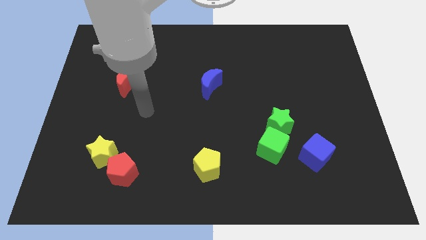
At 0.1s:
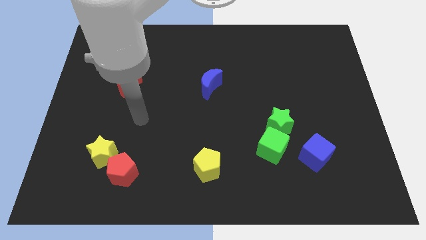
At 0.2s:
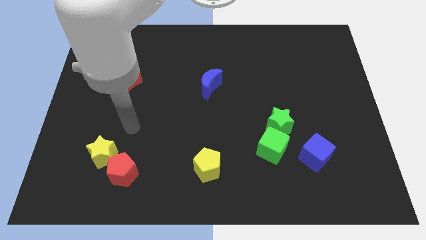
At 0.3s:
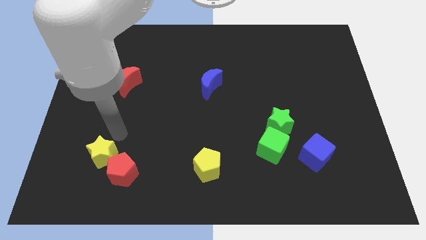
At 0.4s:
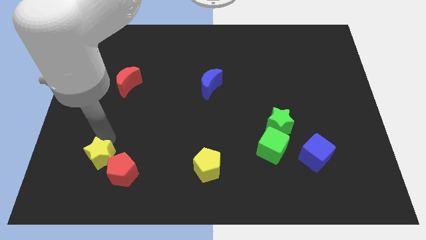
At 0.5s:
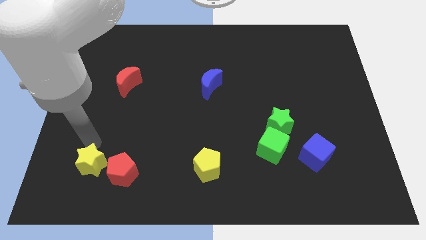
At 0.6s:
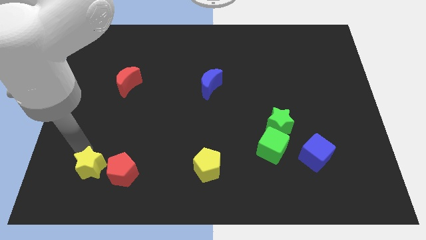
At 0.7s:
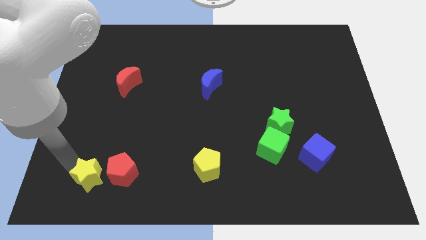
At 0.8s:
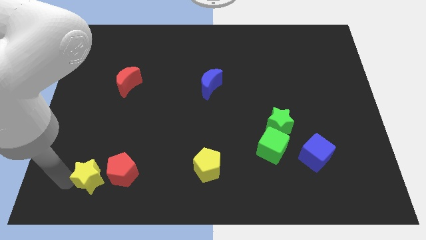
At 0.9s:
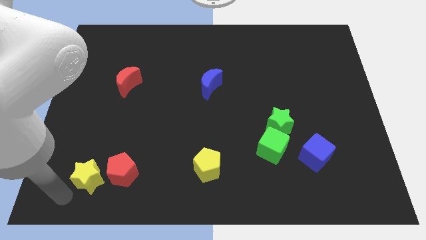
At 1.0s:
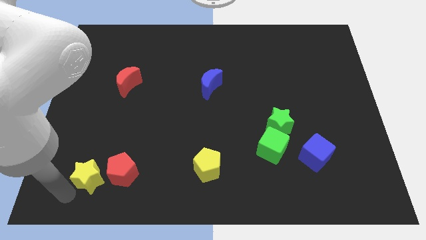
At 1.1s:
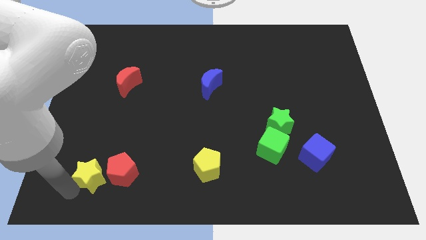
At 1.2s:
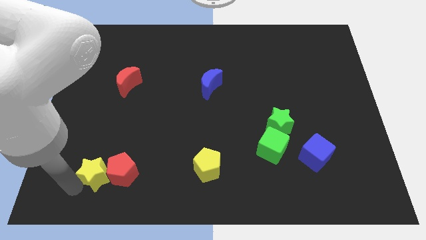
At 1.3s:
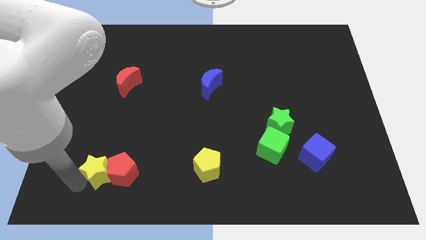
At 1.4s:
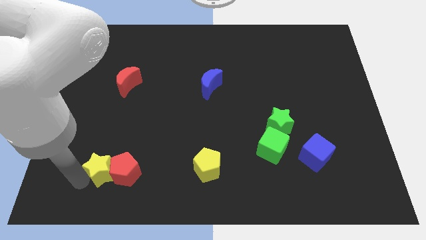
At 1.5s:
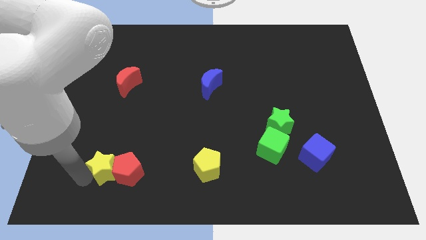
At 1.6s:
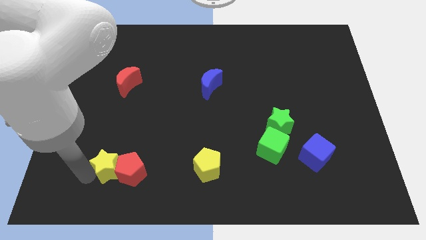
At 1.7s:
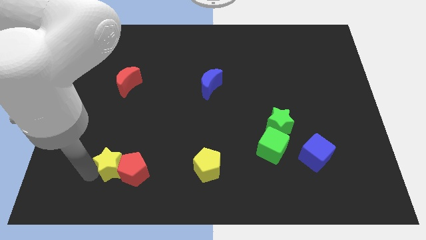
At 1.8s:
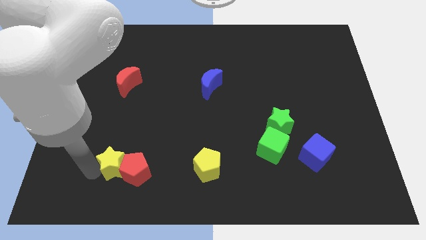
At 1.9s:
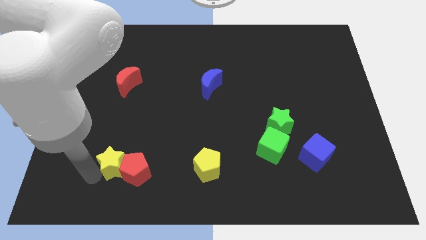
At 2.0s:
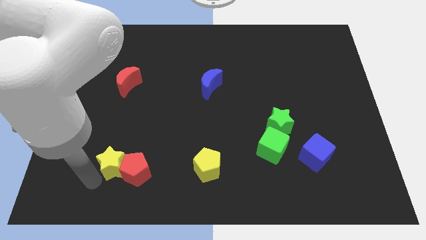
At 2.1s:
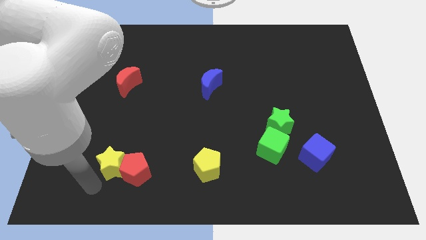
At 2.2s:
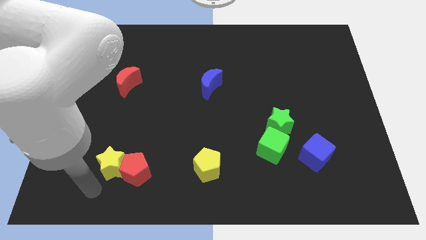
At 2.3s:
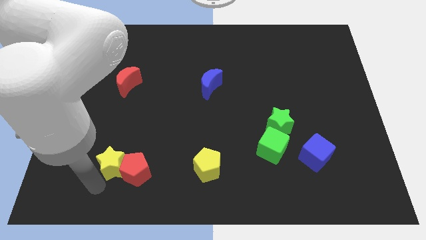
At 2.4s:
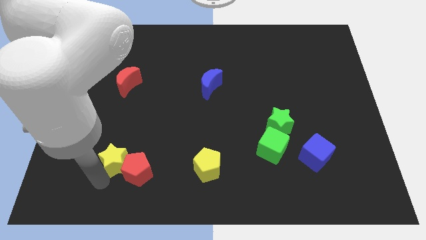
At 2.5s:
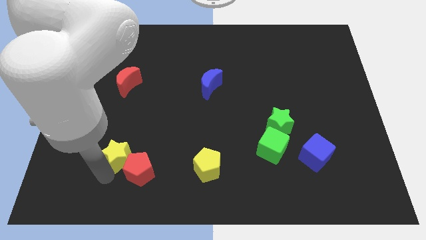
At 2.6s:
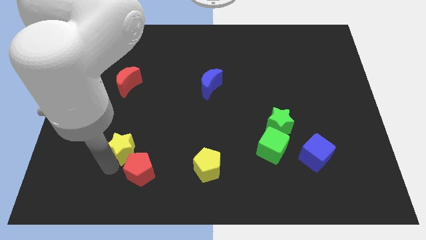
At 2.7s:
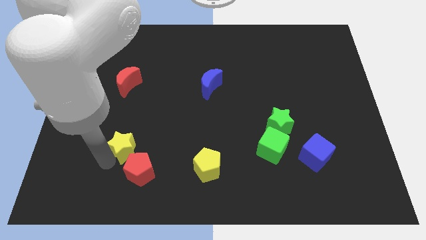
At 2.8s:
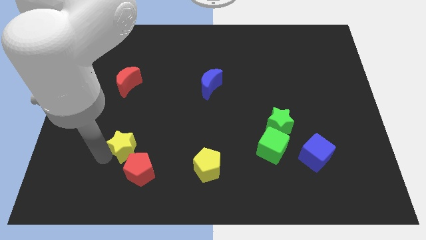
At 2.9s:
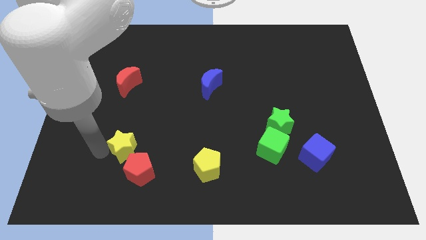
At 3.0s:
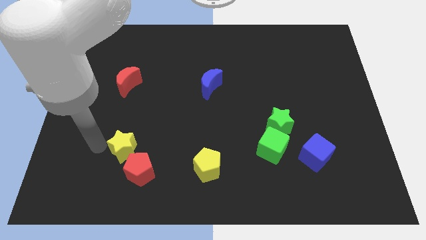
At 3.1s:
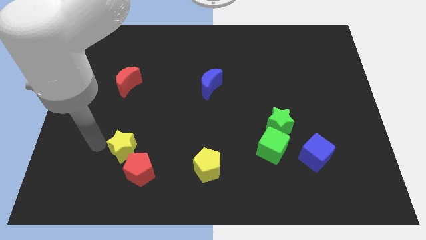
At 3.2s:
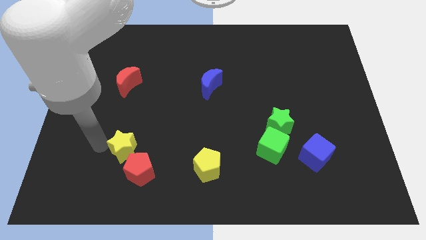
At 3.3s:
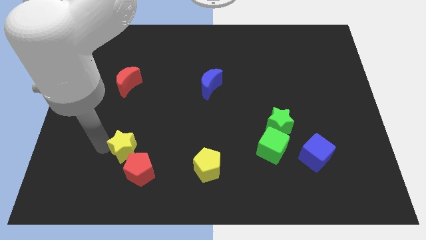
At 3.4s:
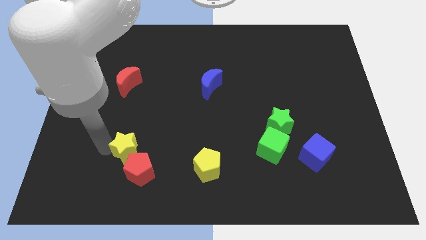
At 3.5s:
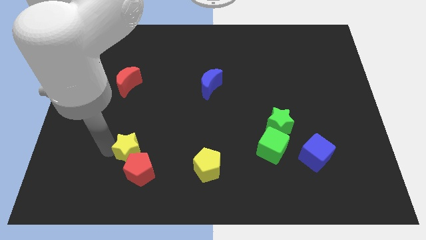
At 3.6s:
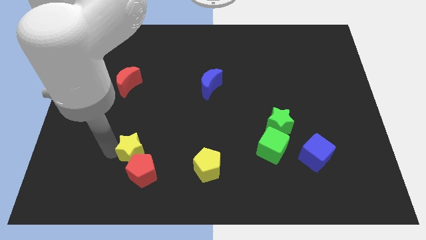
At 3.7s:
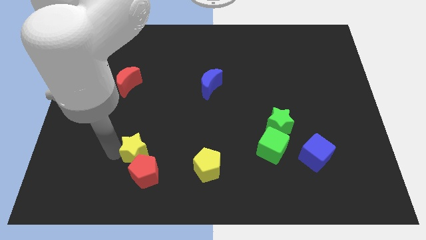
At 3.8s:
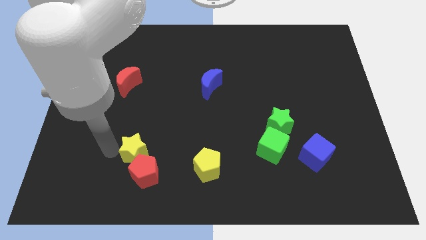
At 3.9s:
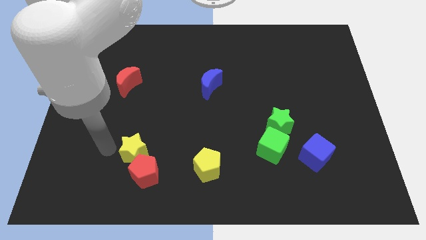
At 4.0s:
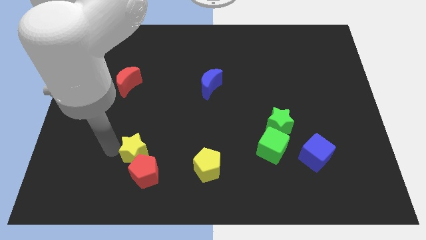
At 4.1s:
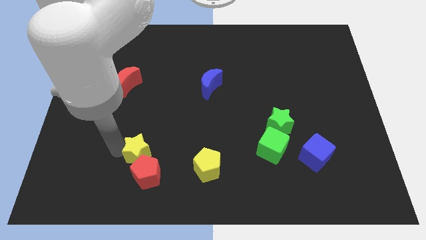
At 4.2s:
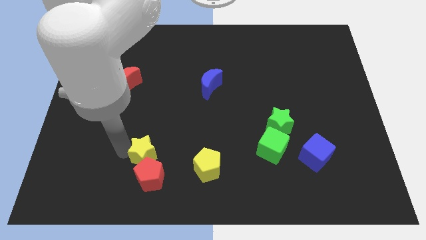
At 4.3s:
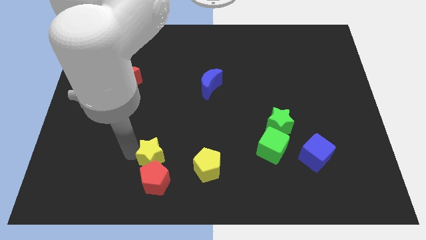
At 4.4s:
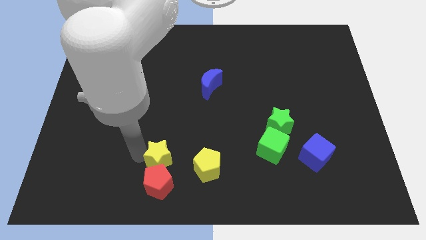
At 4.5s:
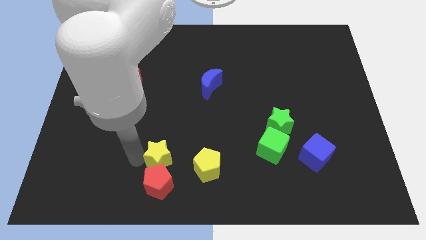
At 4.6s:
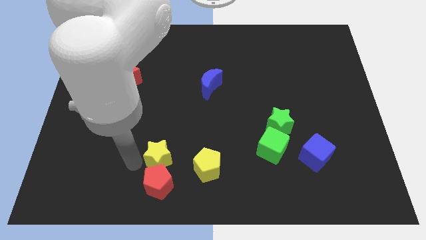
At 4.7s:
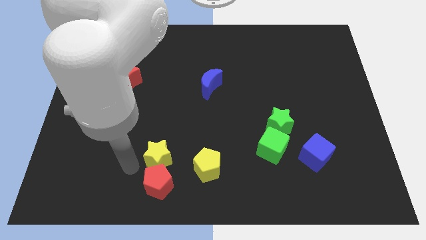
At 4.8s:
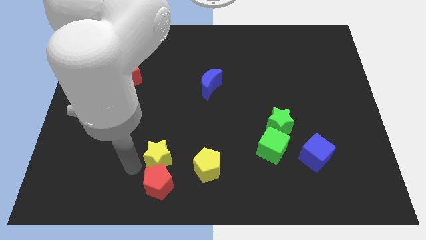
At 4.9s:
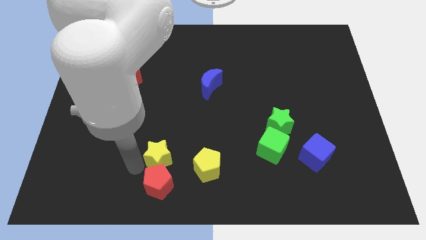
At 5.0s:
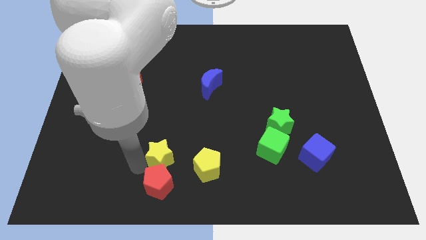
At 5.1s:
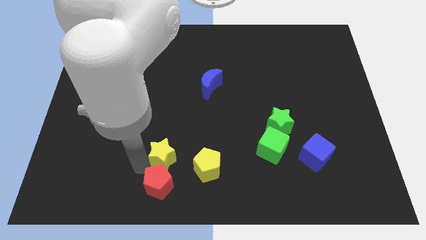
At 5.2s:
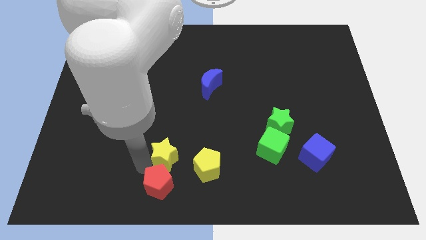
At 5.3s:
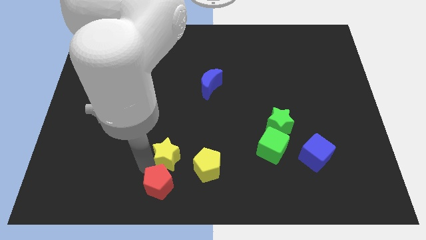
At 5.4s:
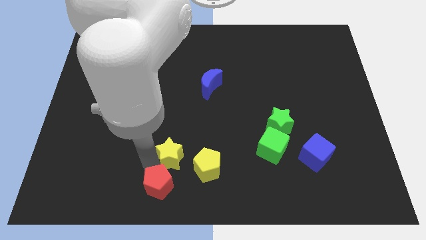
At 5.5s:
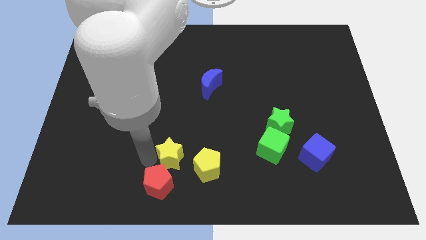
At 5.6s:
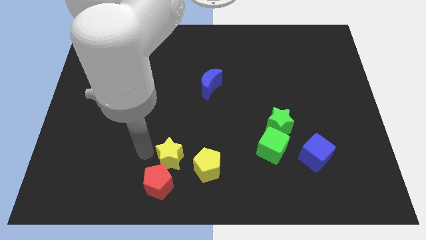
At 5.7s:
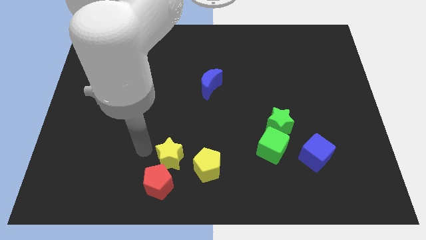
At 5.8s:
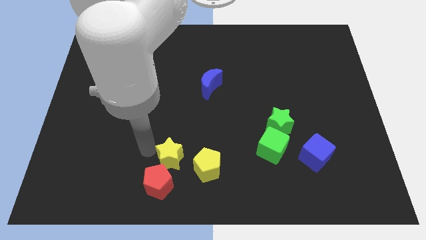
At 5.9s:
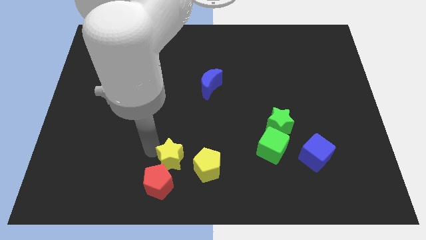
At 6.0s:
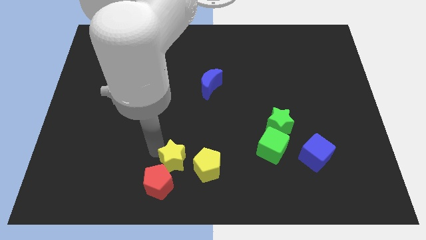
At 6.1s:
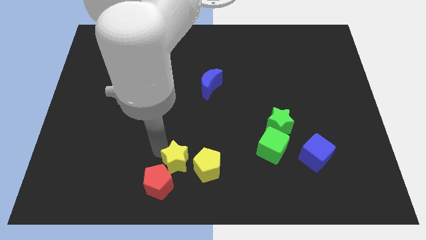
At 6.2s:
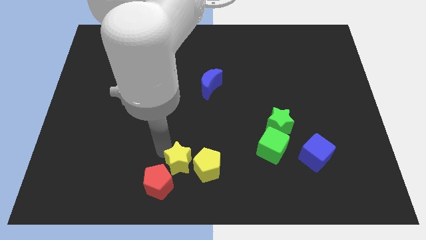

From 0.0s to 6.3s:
slide the yellow star towards the yellow pentagon
